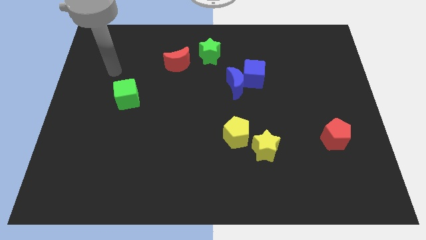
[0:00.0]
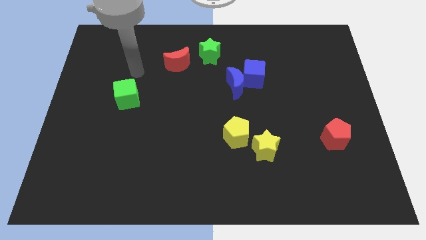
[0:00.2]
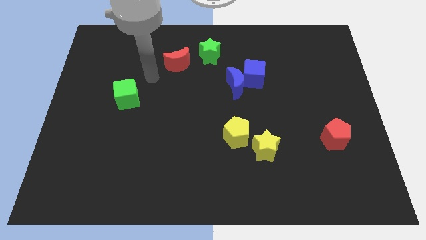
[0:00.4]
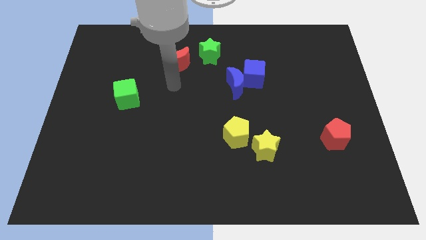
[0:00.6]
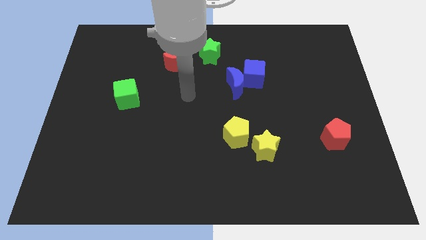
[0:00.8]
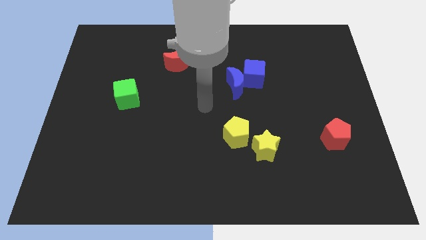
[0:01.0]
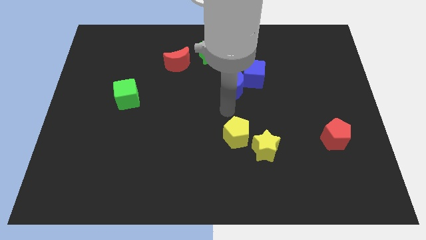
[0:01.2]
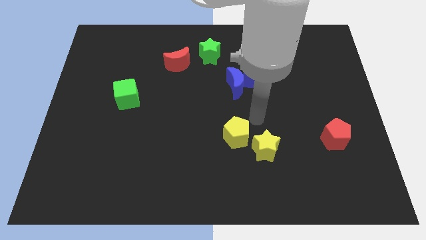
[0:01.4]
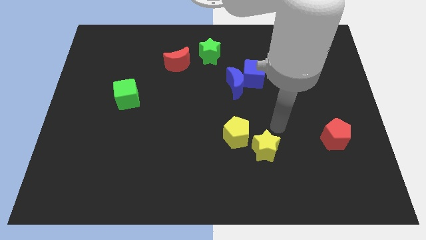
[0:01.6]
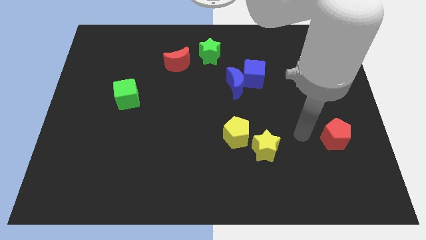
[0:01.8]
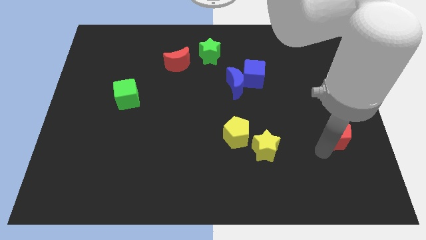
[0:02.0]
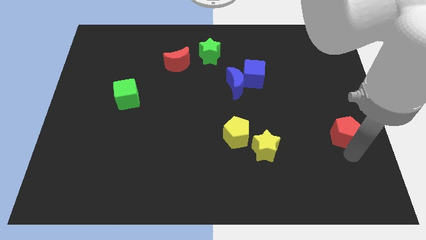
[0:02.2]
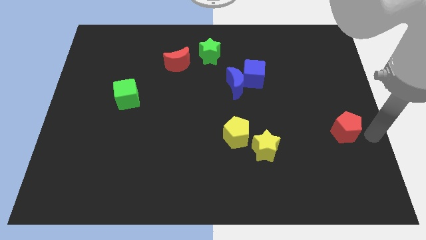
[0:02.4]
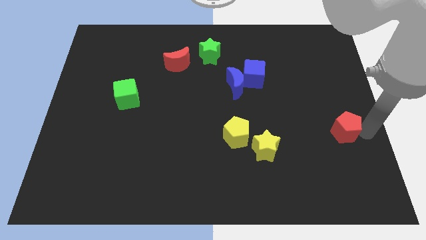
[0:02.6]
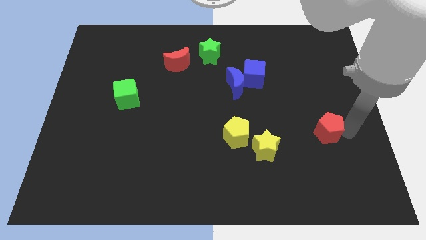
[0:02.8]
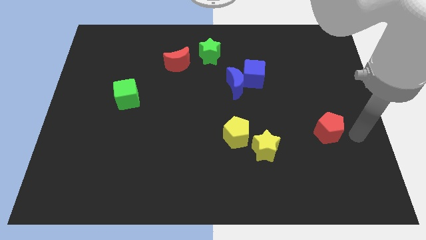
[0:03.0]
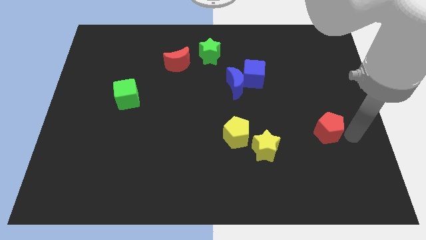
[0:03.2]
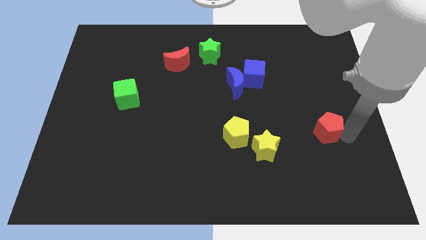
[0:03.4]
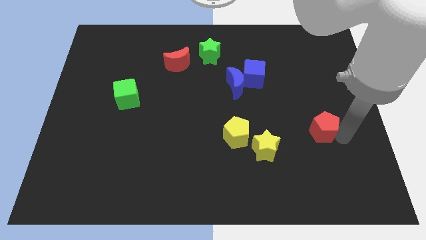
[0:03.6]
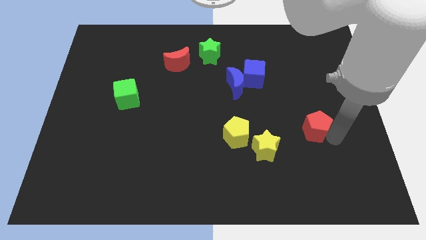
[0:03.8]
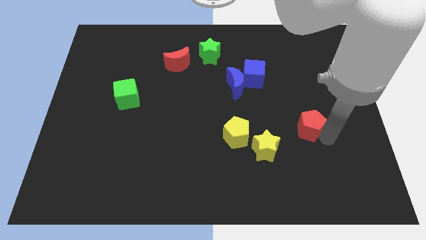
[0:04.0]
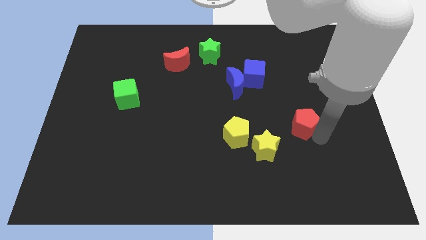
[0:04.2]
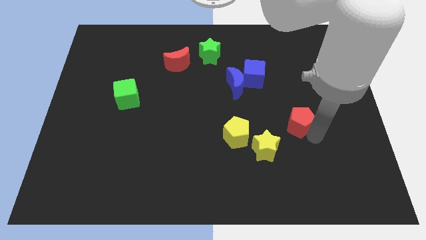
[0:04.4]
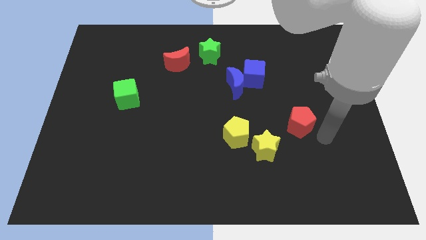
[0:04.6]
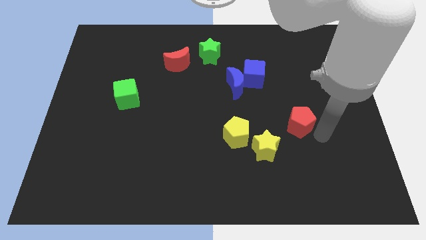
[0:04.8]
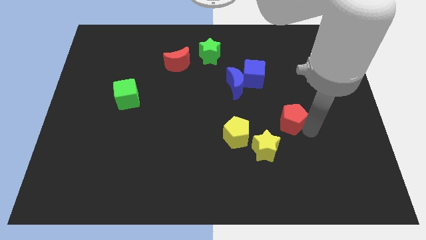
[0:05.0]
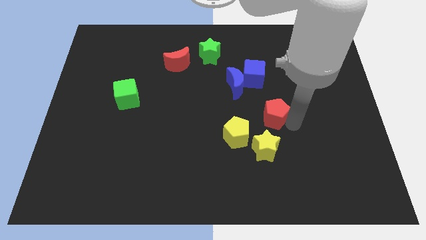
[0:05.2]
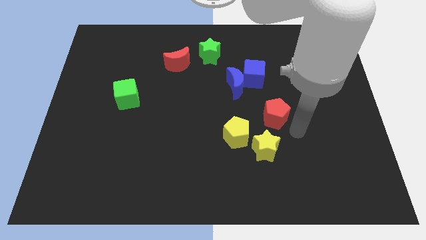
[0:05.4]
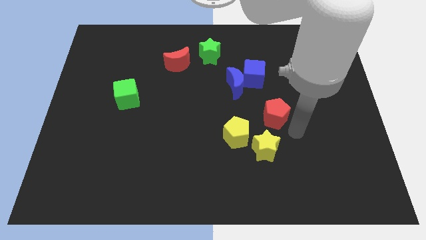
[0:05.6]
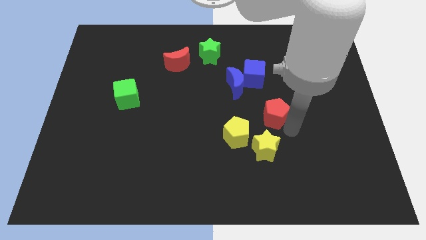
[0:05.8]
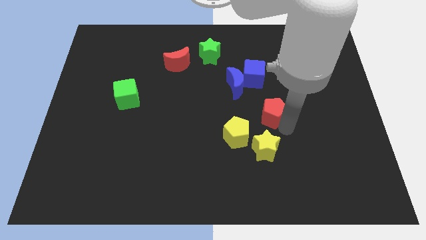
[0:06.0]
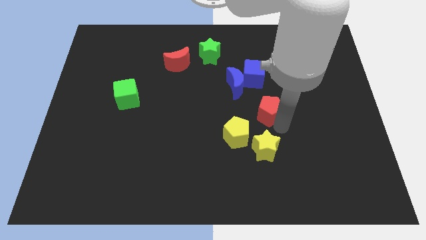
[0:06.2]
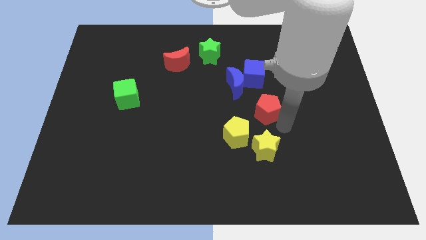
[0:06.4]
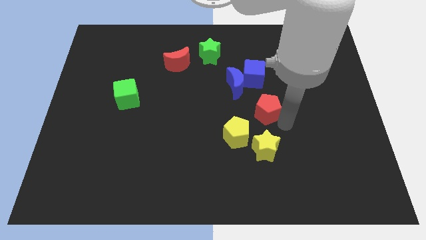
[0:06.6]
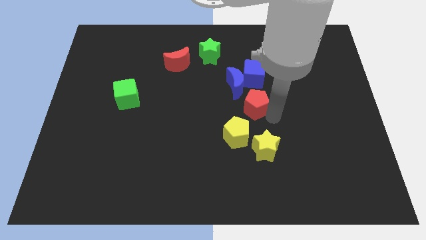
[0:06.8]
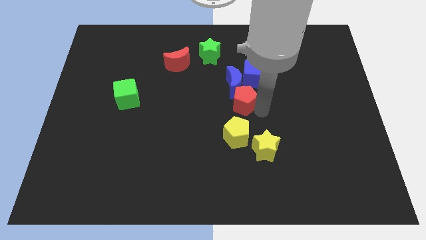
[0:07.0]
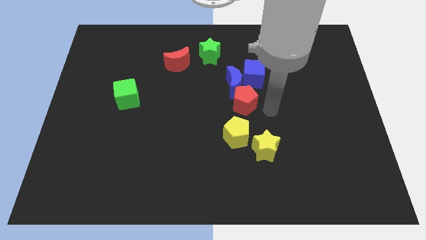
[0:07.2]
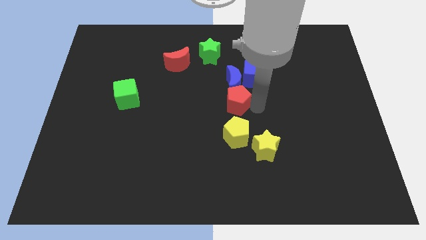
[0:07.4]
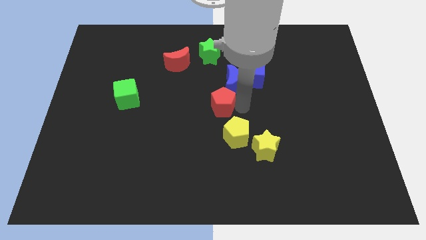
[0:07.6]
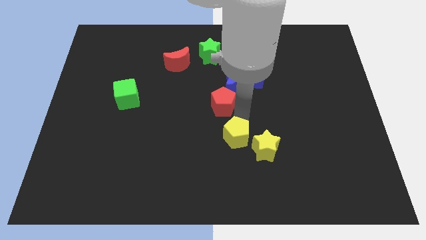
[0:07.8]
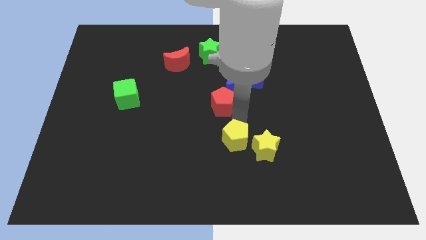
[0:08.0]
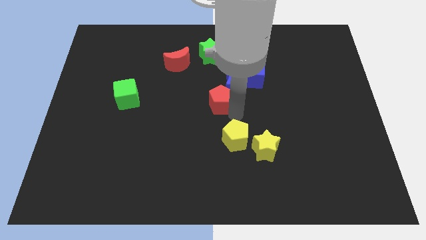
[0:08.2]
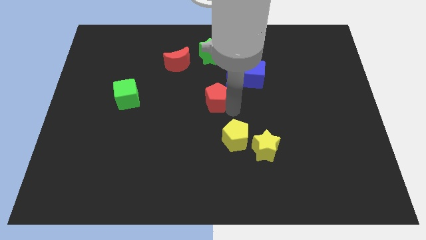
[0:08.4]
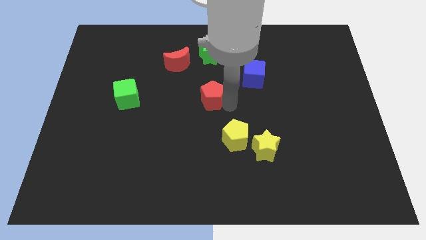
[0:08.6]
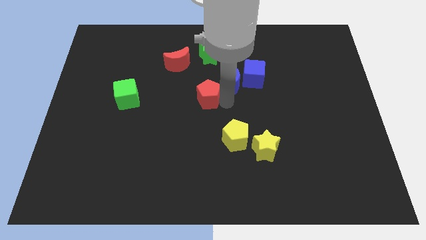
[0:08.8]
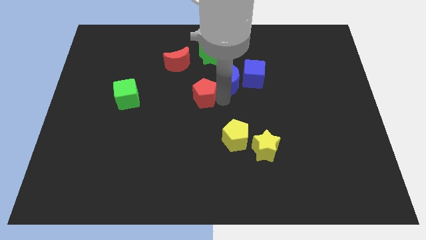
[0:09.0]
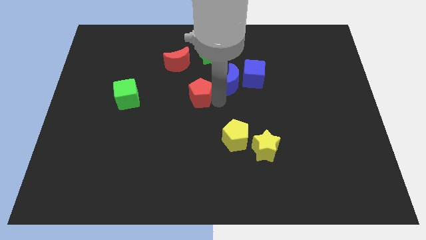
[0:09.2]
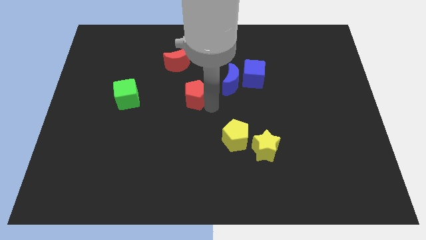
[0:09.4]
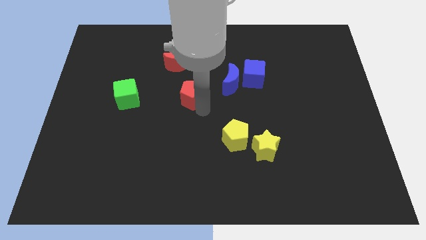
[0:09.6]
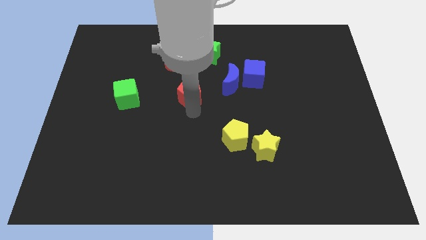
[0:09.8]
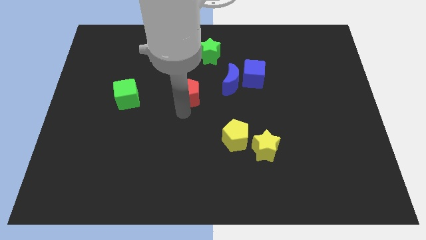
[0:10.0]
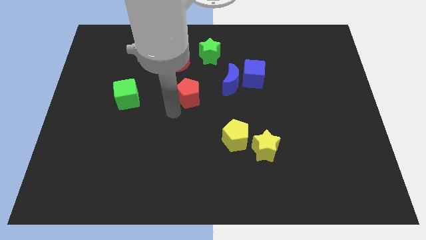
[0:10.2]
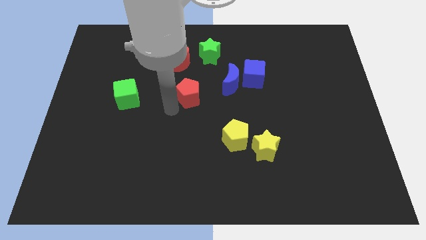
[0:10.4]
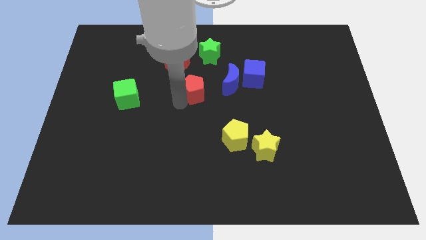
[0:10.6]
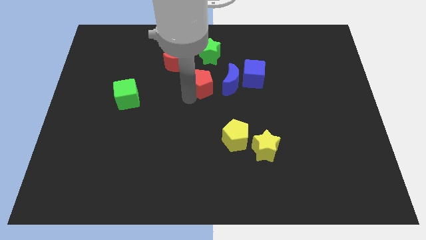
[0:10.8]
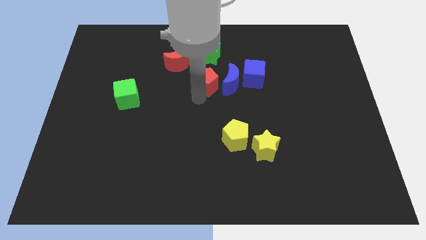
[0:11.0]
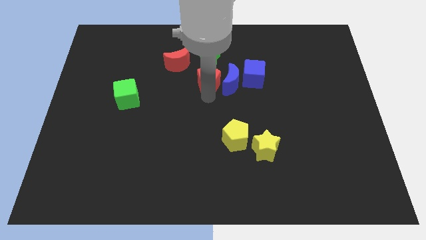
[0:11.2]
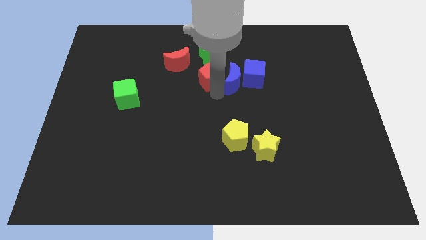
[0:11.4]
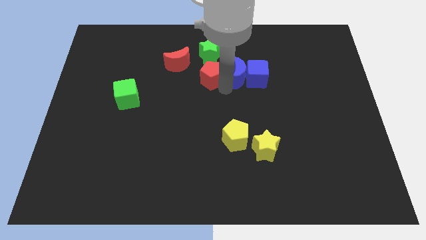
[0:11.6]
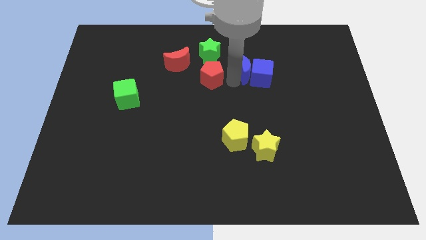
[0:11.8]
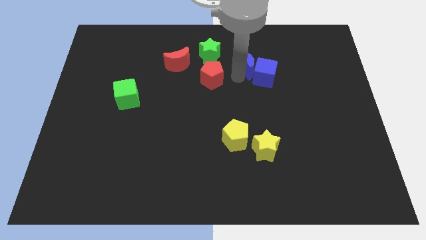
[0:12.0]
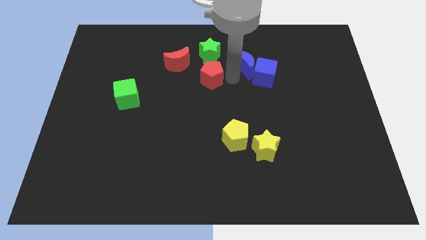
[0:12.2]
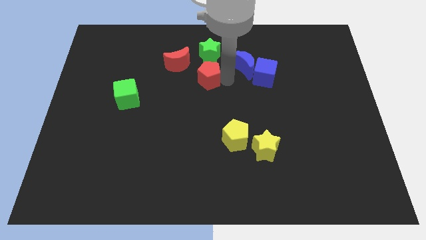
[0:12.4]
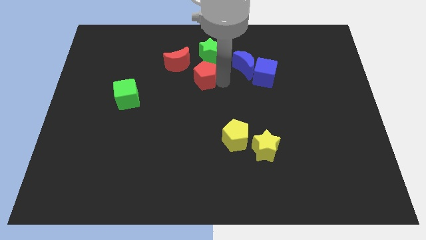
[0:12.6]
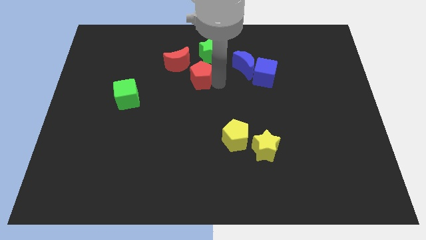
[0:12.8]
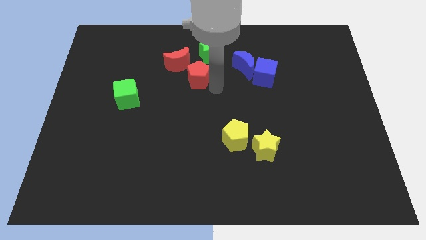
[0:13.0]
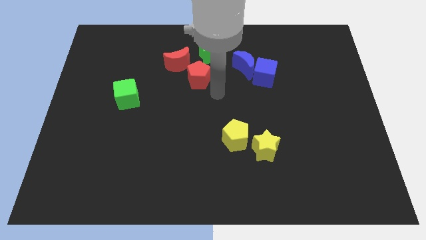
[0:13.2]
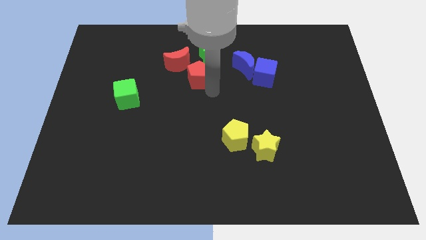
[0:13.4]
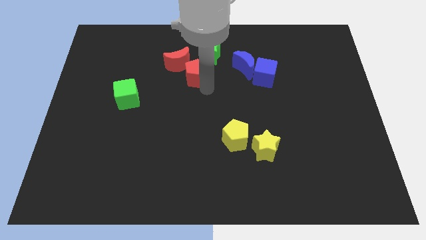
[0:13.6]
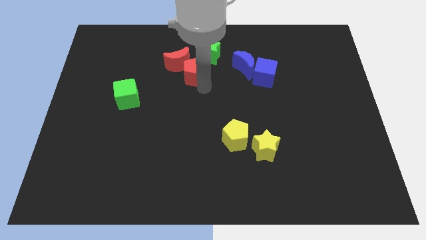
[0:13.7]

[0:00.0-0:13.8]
push the red pentagon next to the red moon

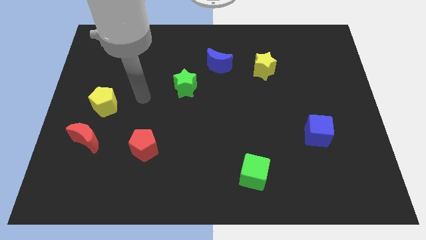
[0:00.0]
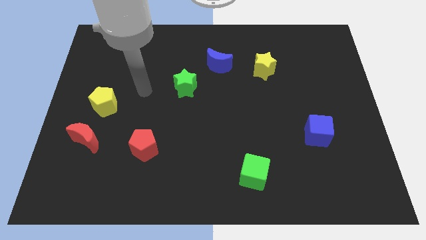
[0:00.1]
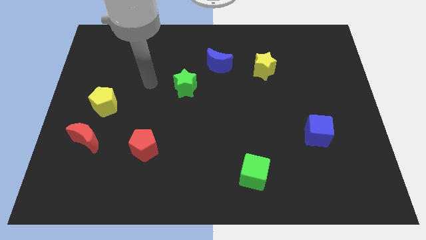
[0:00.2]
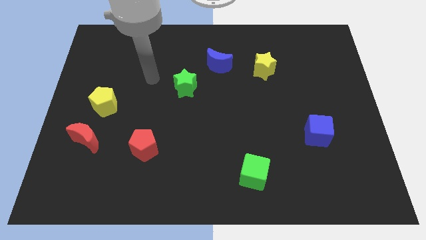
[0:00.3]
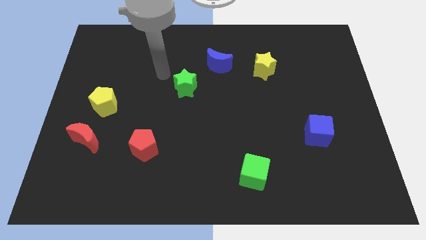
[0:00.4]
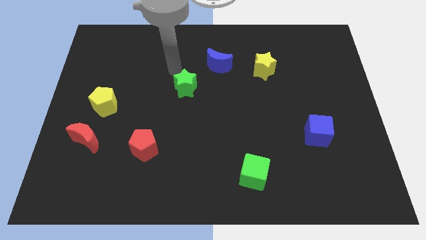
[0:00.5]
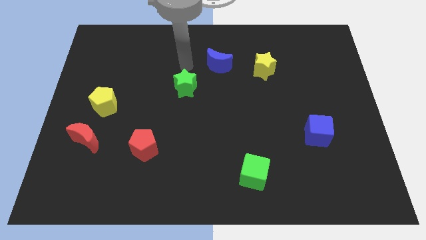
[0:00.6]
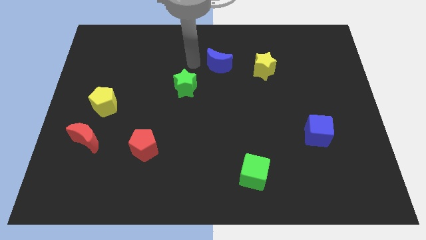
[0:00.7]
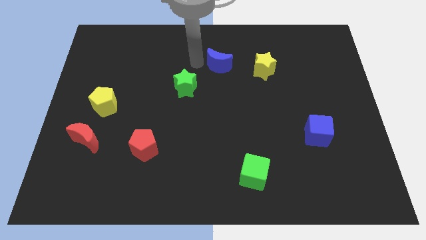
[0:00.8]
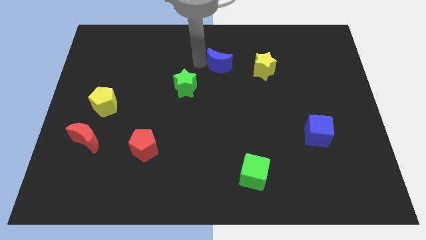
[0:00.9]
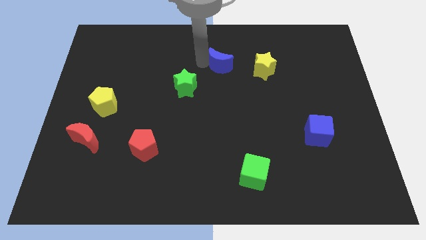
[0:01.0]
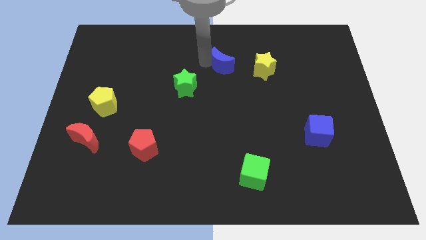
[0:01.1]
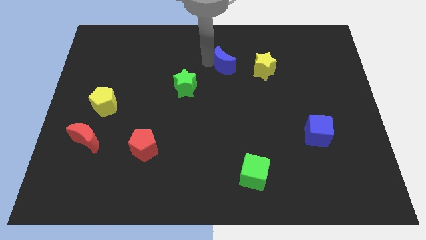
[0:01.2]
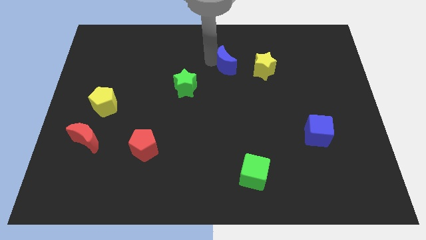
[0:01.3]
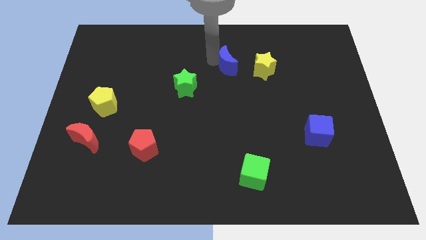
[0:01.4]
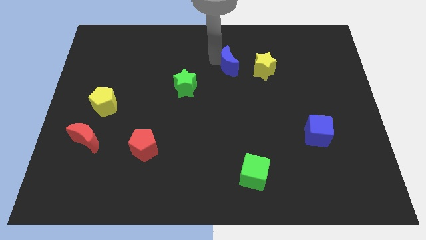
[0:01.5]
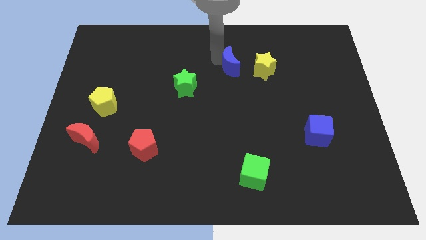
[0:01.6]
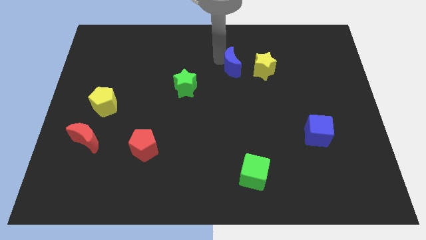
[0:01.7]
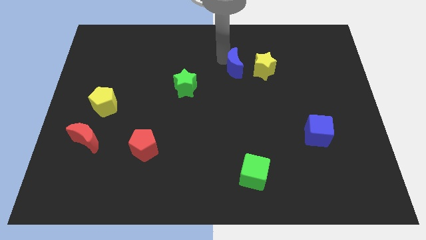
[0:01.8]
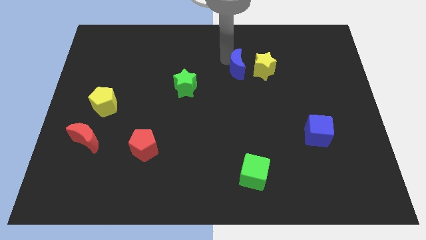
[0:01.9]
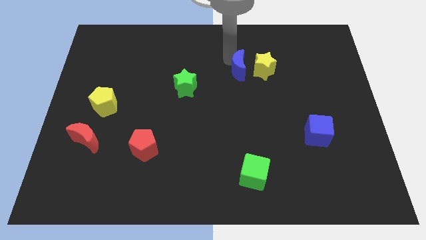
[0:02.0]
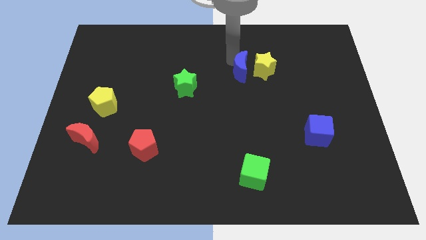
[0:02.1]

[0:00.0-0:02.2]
slide the blue moon close to the yellow star
